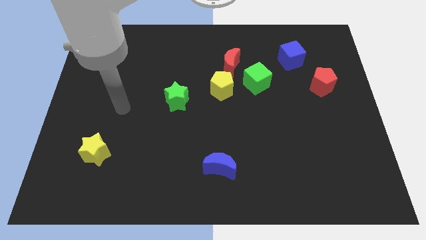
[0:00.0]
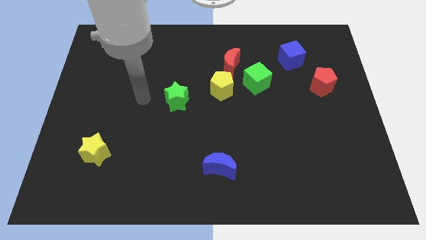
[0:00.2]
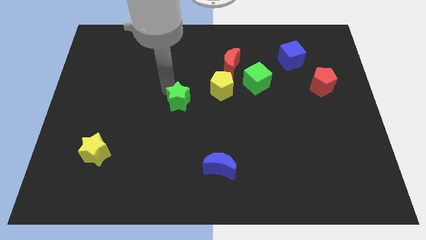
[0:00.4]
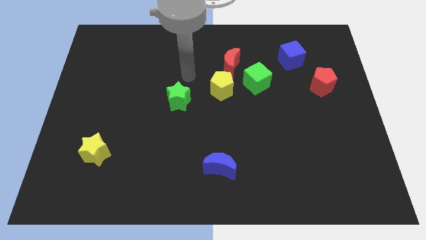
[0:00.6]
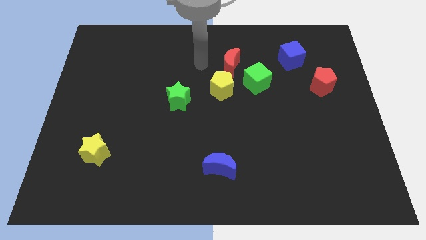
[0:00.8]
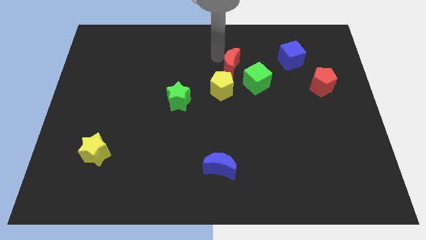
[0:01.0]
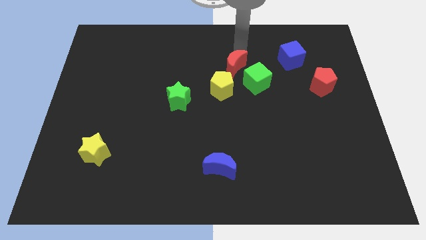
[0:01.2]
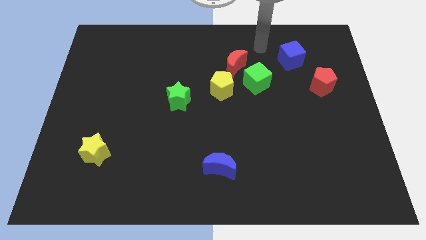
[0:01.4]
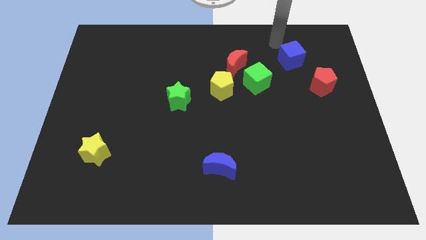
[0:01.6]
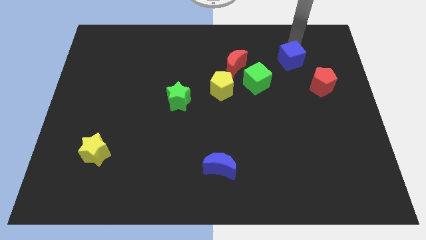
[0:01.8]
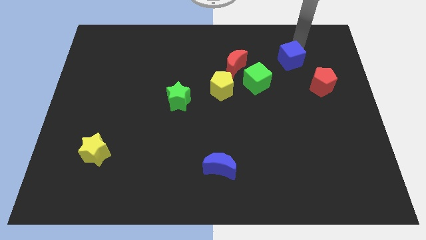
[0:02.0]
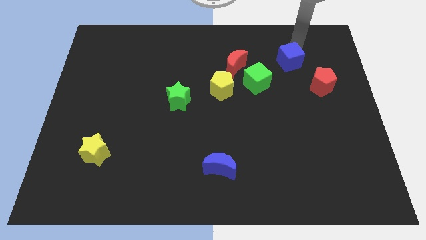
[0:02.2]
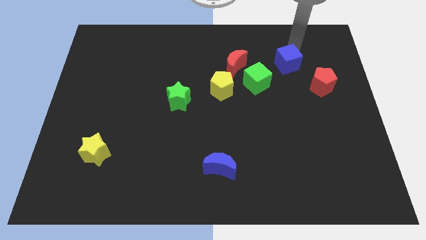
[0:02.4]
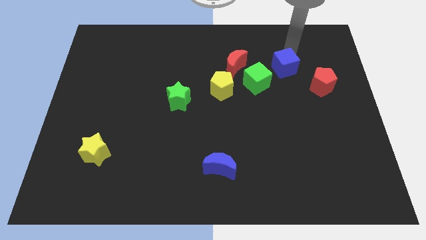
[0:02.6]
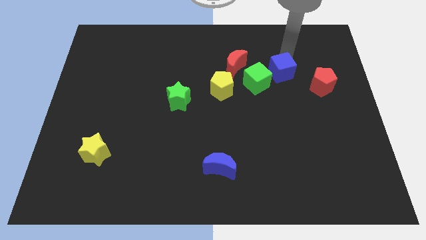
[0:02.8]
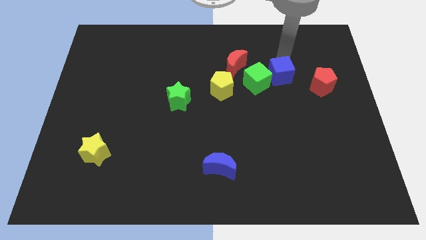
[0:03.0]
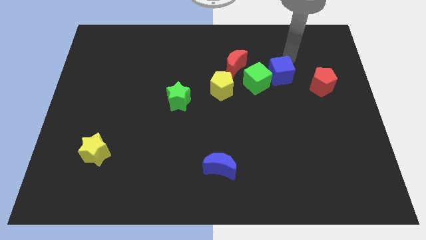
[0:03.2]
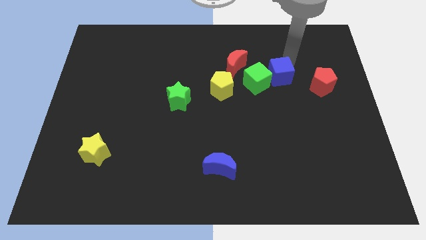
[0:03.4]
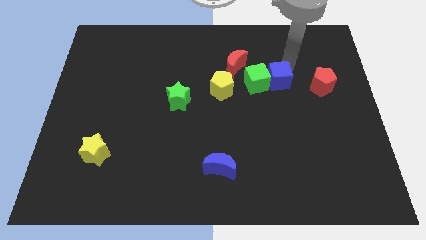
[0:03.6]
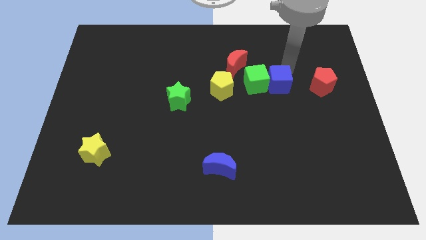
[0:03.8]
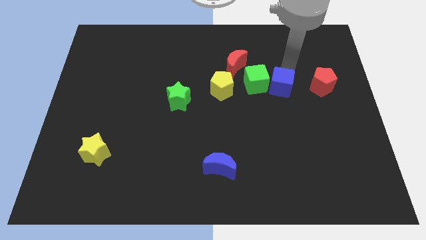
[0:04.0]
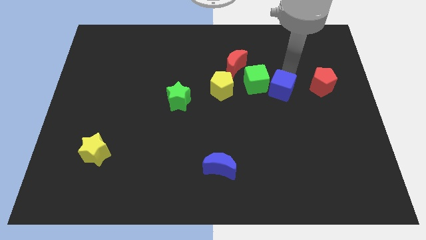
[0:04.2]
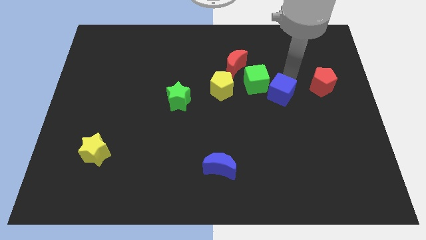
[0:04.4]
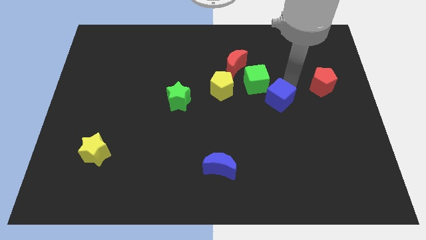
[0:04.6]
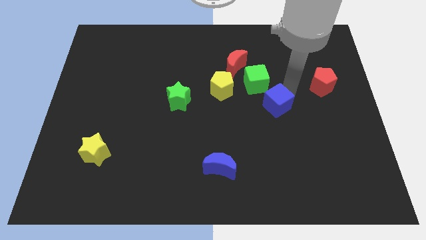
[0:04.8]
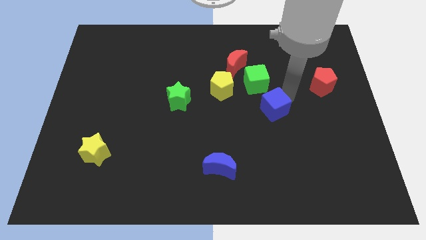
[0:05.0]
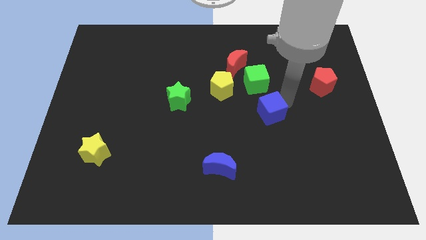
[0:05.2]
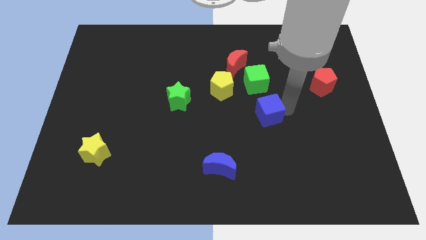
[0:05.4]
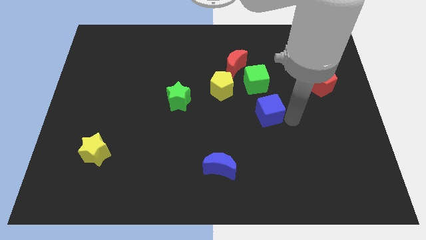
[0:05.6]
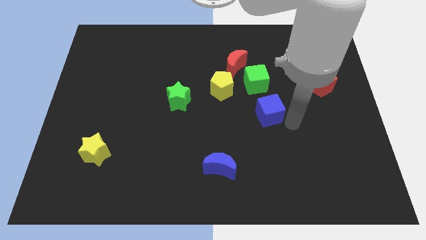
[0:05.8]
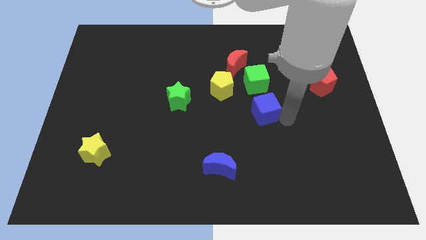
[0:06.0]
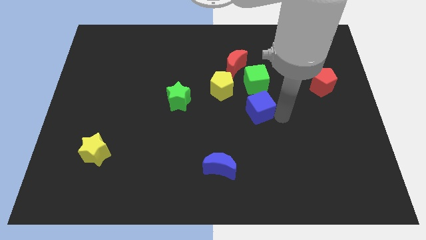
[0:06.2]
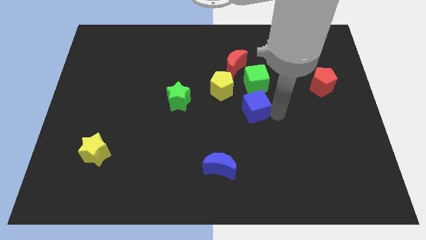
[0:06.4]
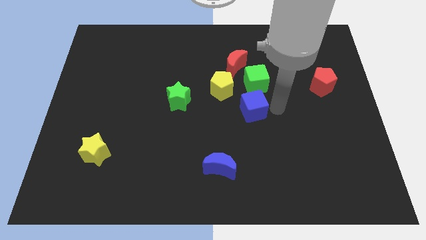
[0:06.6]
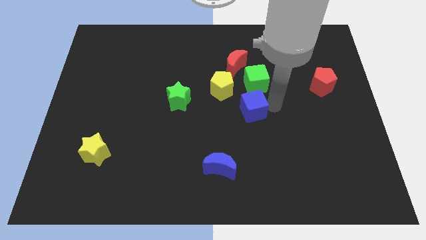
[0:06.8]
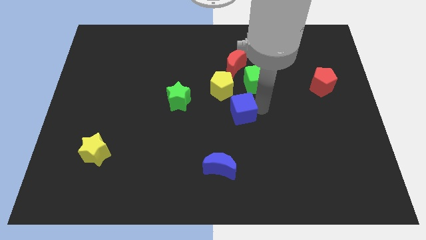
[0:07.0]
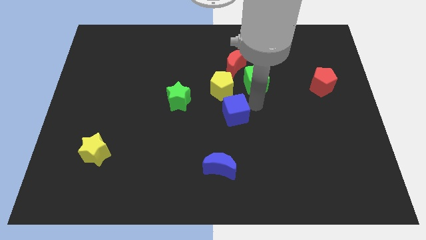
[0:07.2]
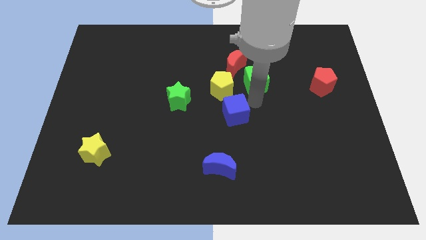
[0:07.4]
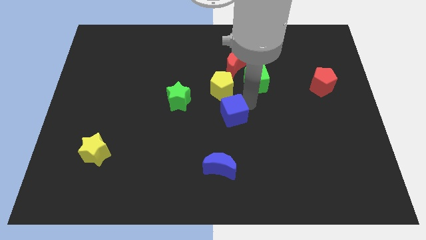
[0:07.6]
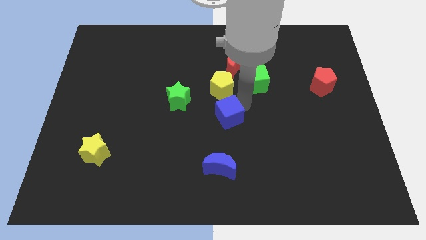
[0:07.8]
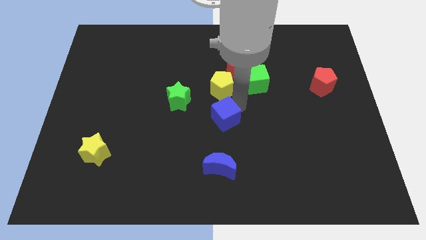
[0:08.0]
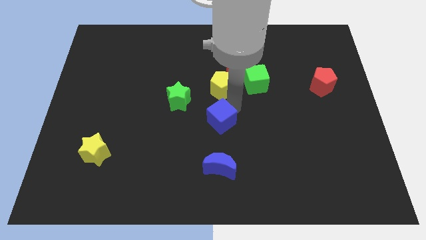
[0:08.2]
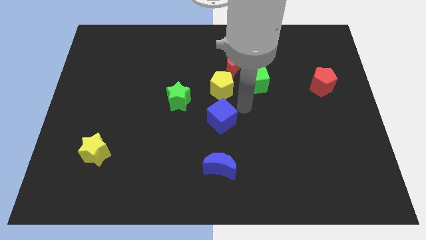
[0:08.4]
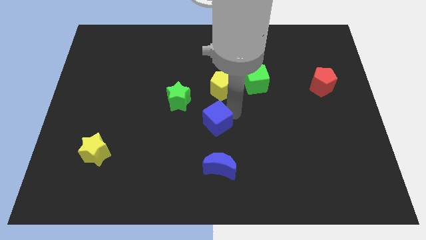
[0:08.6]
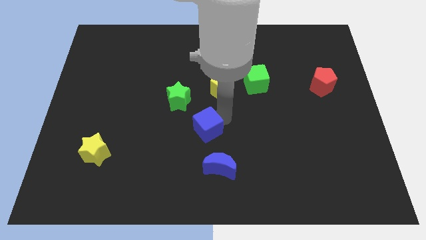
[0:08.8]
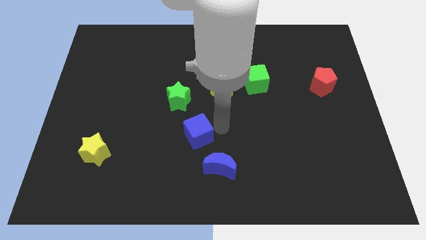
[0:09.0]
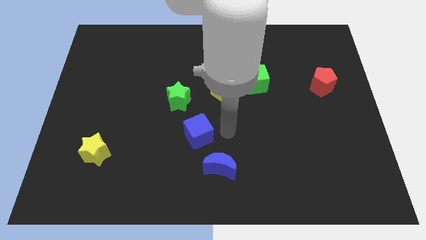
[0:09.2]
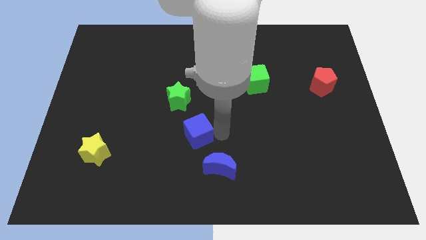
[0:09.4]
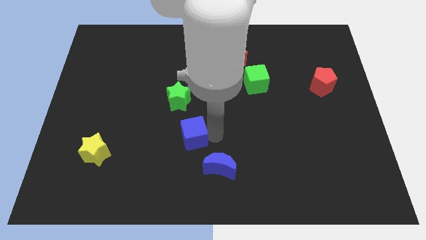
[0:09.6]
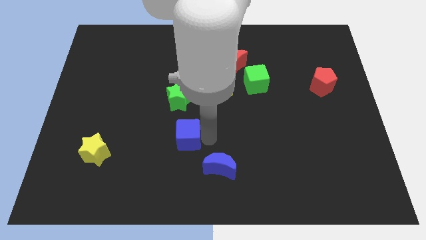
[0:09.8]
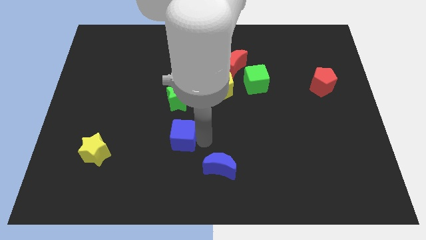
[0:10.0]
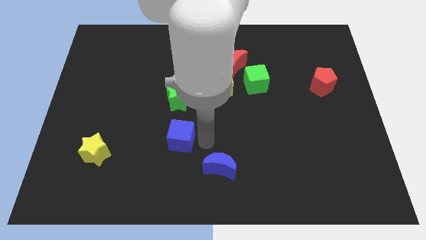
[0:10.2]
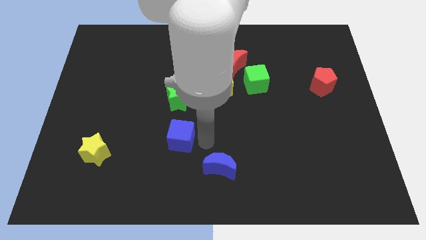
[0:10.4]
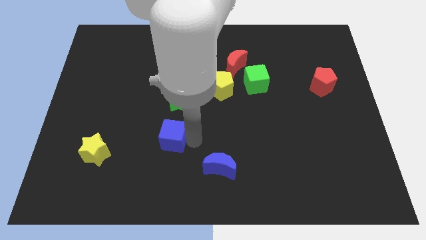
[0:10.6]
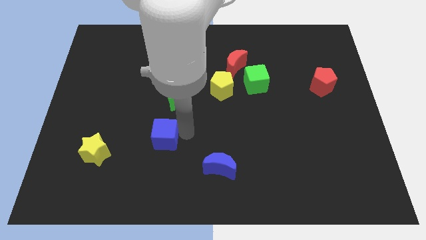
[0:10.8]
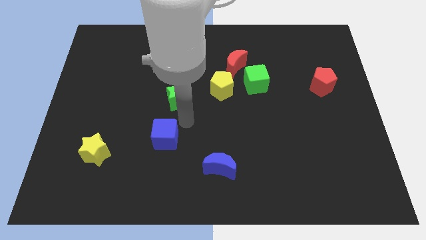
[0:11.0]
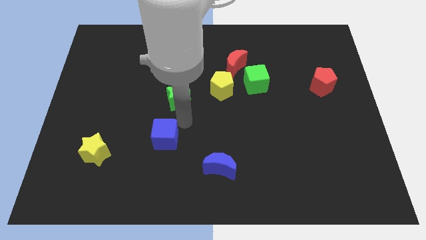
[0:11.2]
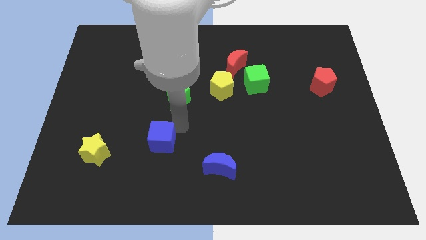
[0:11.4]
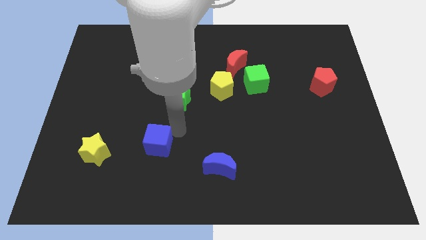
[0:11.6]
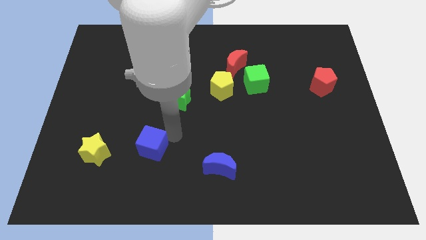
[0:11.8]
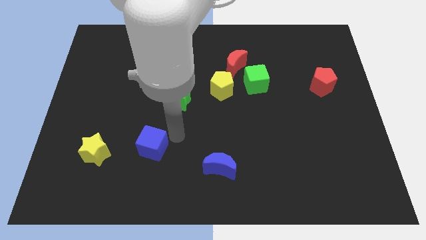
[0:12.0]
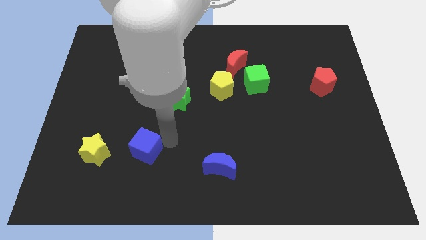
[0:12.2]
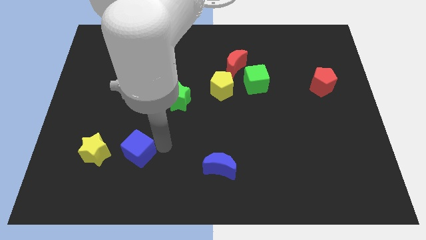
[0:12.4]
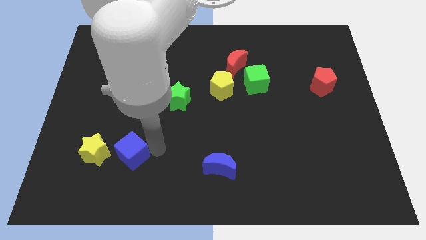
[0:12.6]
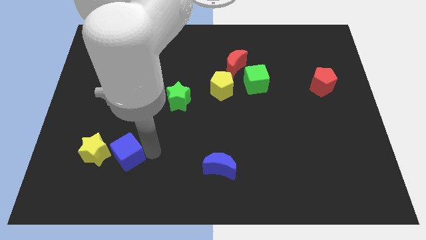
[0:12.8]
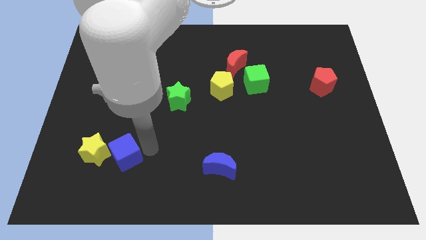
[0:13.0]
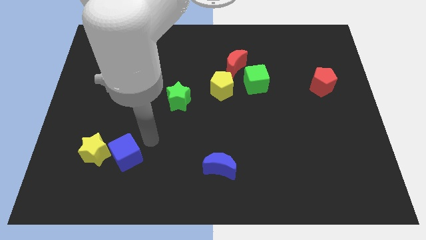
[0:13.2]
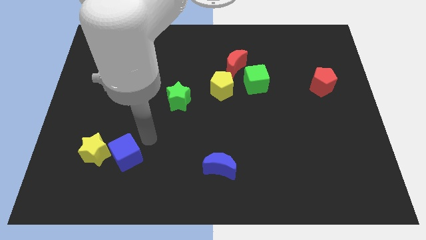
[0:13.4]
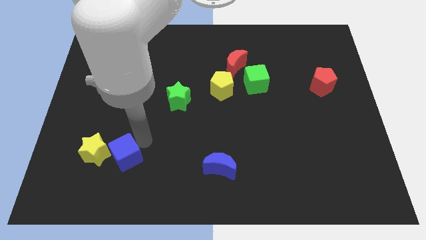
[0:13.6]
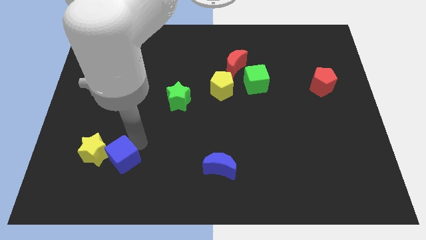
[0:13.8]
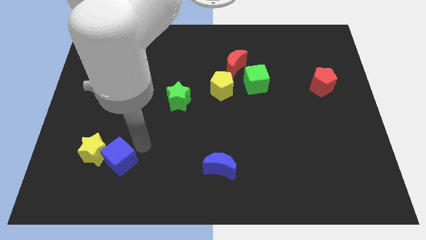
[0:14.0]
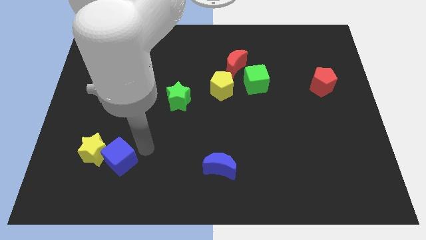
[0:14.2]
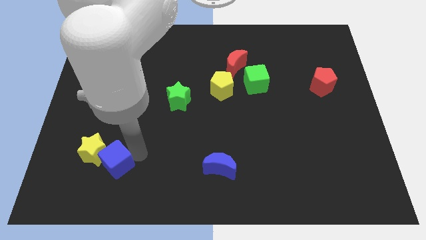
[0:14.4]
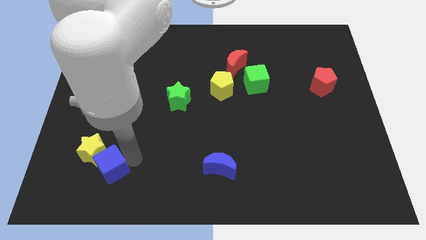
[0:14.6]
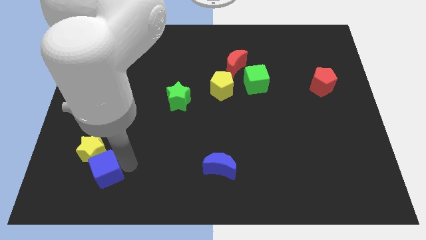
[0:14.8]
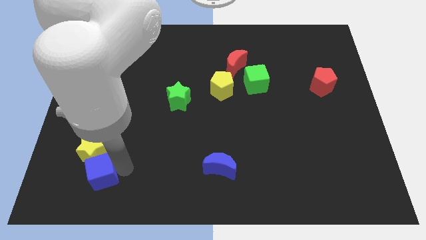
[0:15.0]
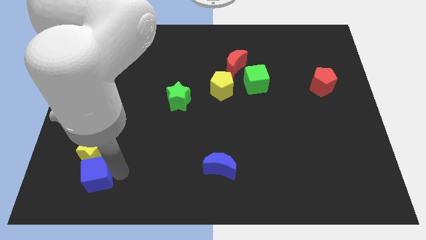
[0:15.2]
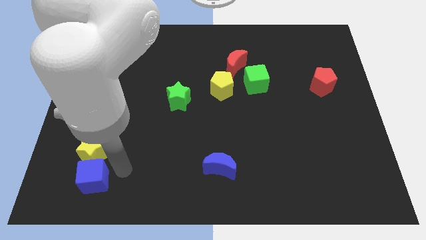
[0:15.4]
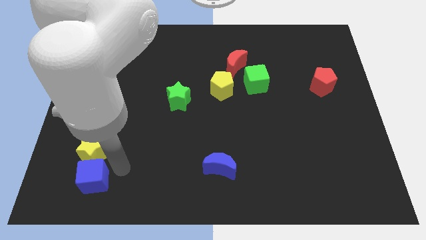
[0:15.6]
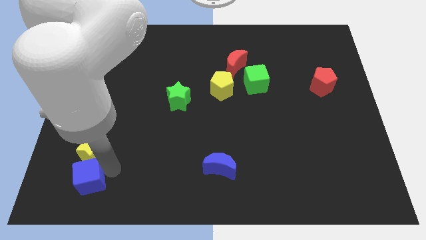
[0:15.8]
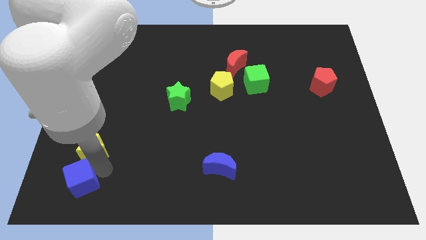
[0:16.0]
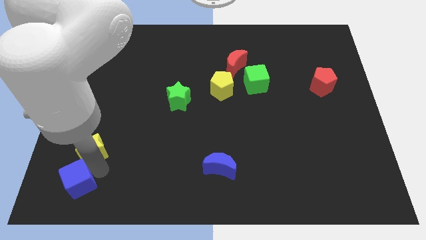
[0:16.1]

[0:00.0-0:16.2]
slide the blue cube to the bottom left
